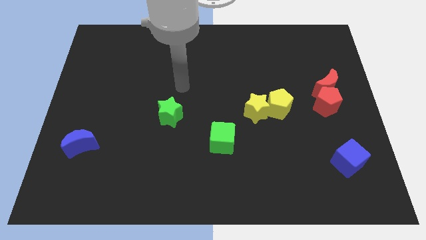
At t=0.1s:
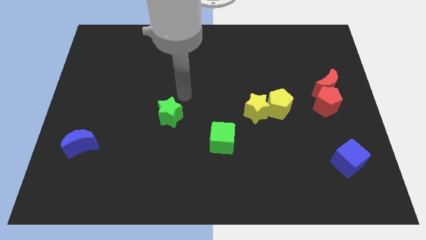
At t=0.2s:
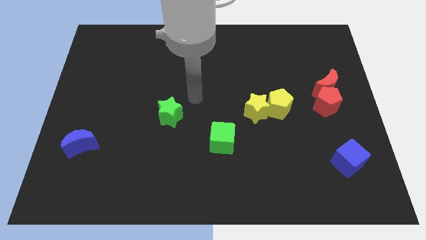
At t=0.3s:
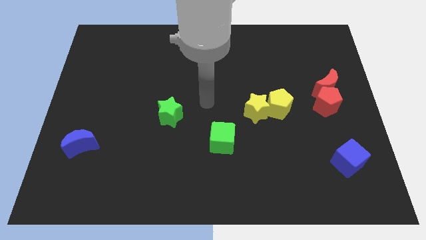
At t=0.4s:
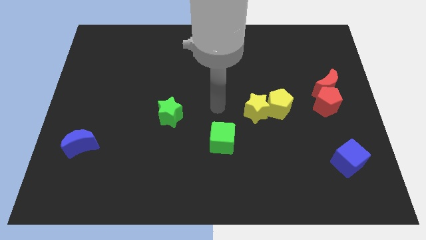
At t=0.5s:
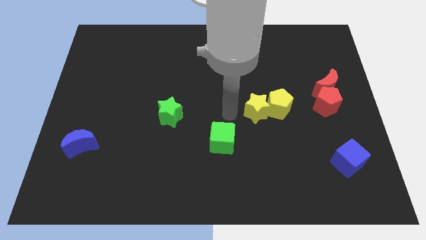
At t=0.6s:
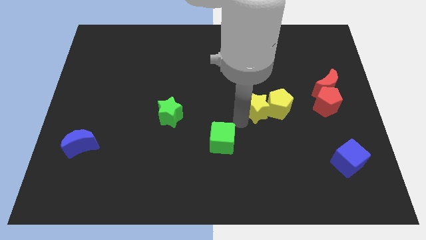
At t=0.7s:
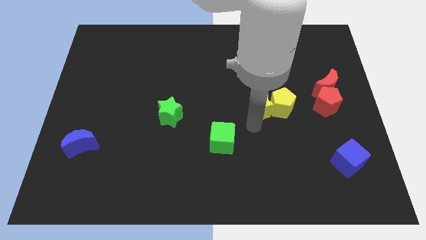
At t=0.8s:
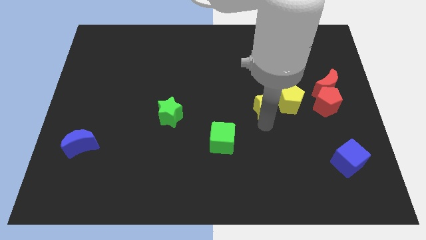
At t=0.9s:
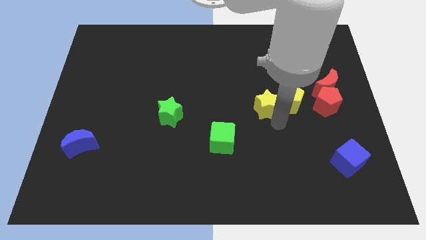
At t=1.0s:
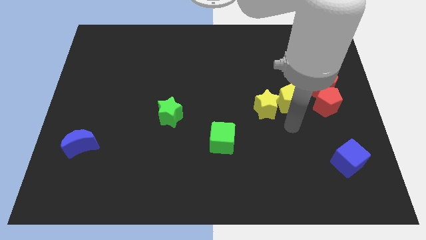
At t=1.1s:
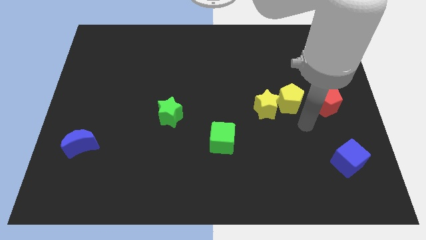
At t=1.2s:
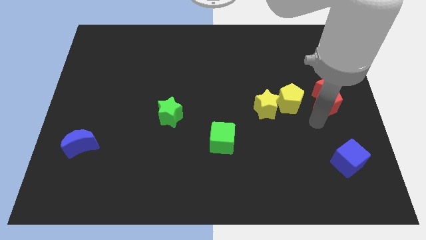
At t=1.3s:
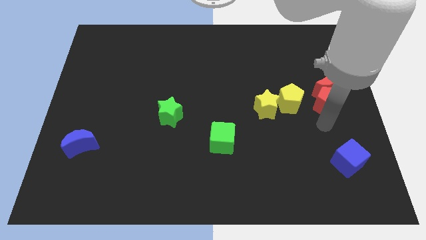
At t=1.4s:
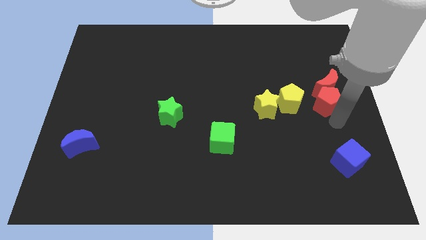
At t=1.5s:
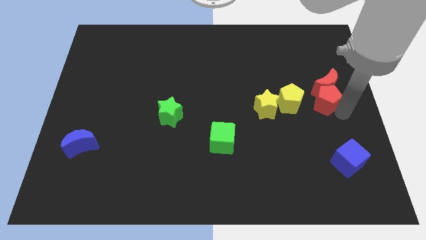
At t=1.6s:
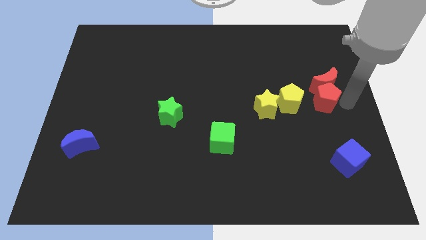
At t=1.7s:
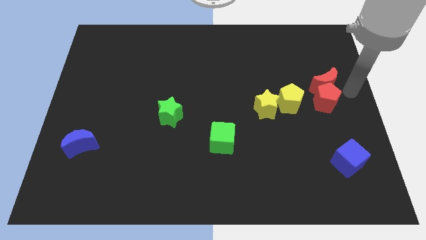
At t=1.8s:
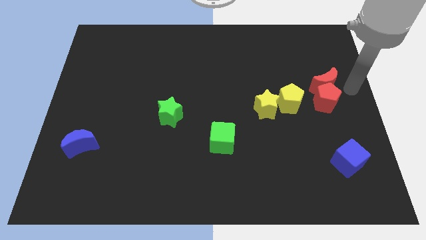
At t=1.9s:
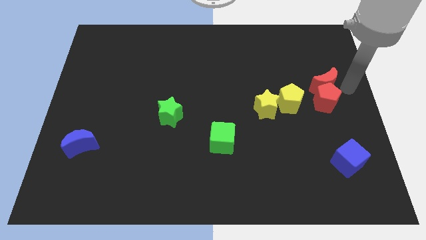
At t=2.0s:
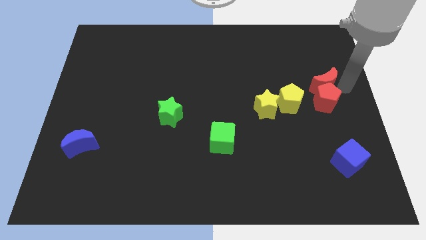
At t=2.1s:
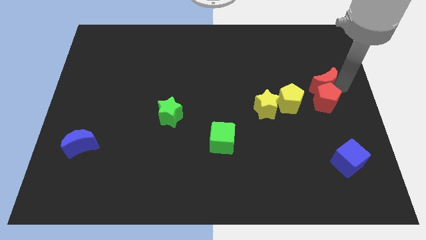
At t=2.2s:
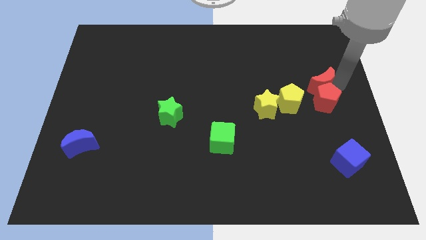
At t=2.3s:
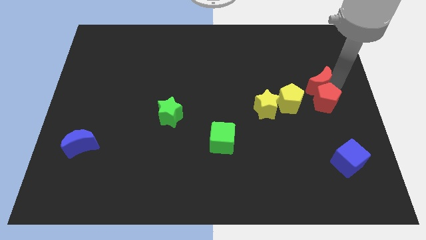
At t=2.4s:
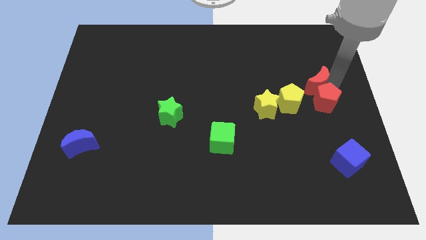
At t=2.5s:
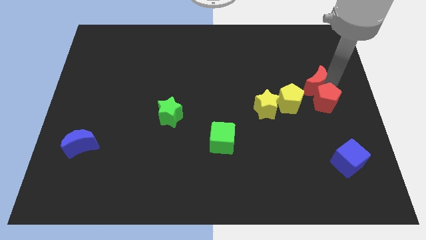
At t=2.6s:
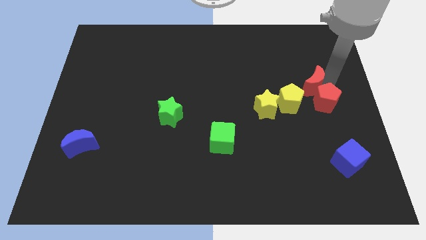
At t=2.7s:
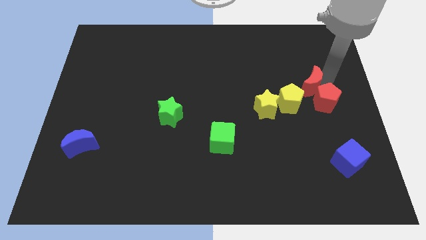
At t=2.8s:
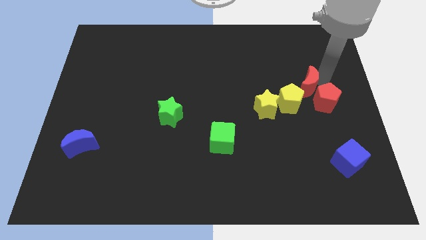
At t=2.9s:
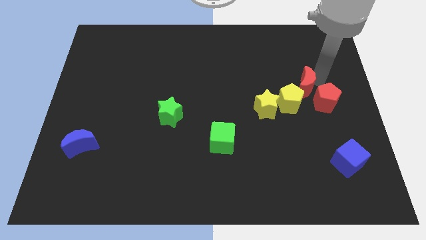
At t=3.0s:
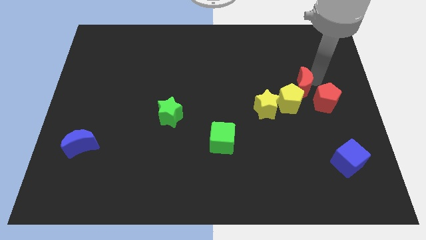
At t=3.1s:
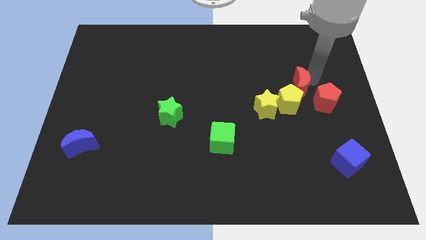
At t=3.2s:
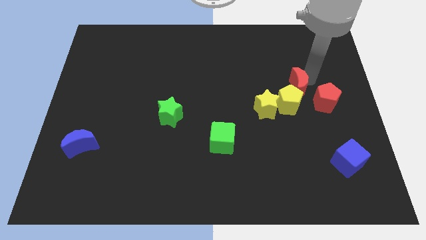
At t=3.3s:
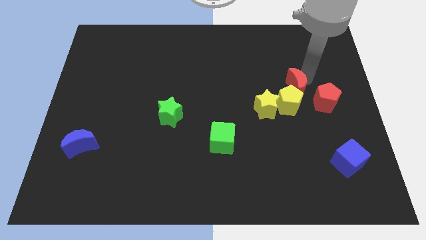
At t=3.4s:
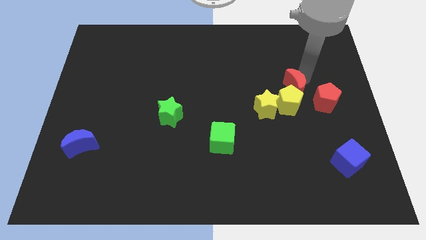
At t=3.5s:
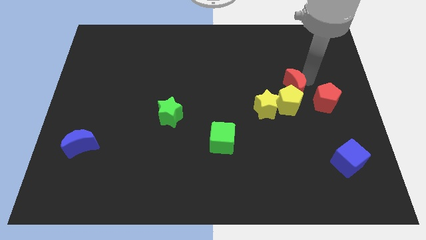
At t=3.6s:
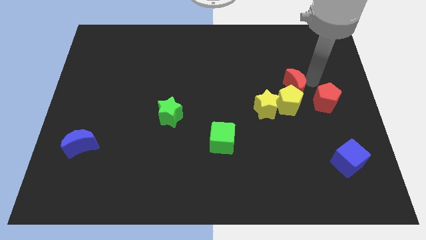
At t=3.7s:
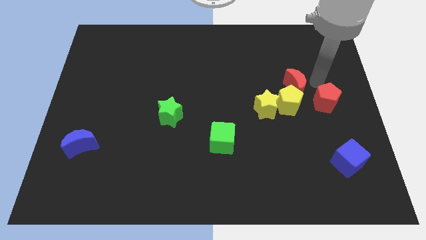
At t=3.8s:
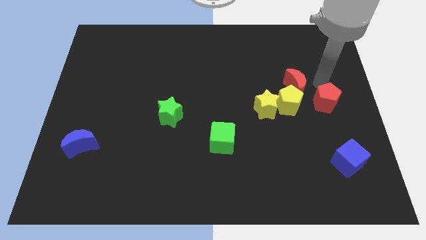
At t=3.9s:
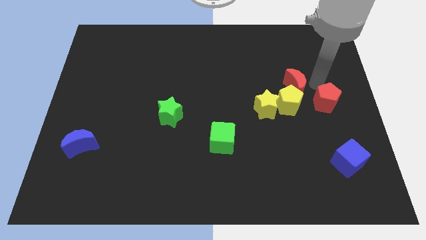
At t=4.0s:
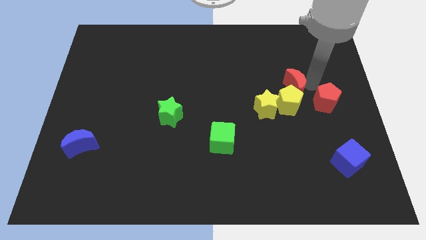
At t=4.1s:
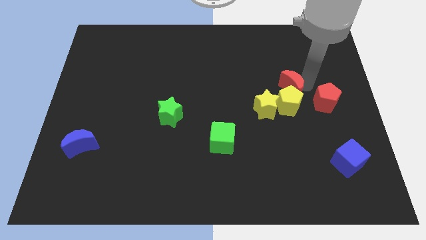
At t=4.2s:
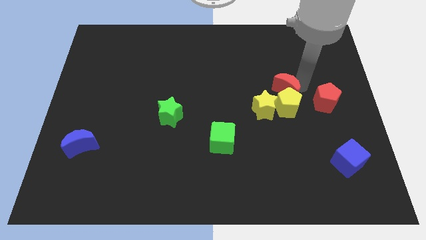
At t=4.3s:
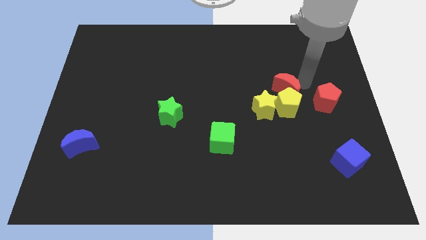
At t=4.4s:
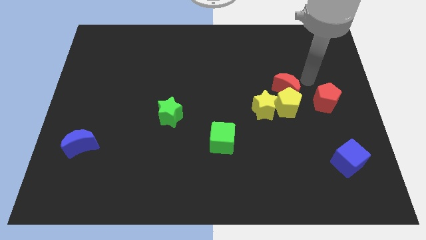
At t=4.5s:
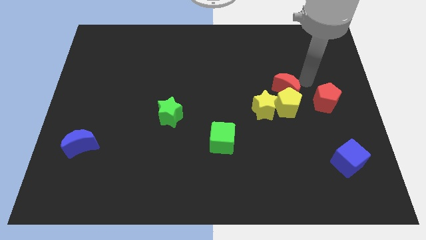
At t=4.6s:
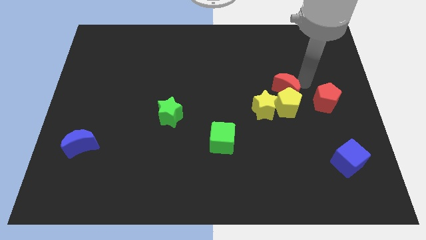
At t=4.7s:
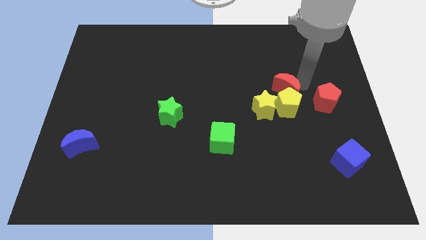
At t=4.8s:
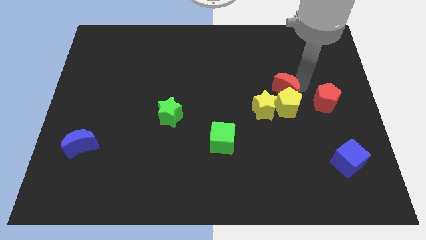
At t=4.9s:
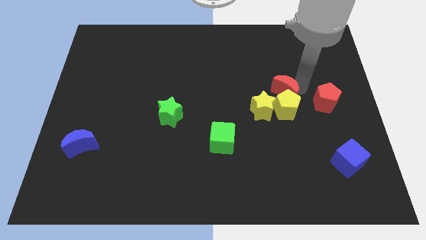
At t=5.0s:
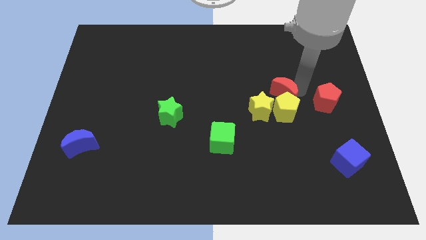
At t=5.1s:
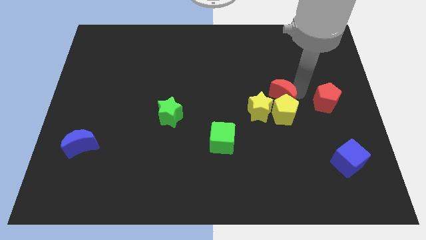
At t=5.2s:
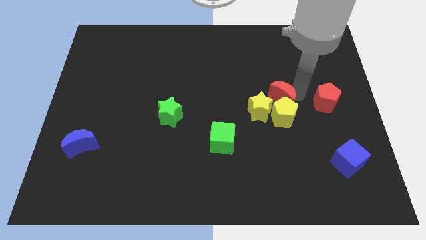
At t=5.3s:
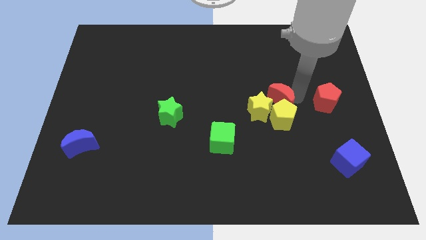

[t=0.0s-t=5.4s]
push the red moon towards the yellow star

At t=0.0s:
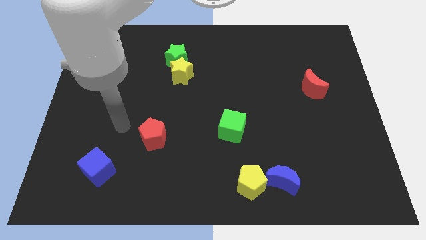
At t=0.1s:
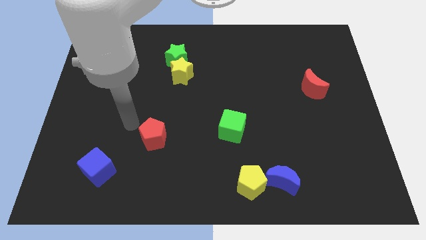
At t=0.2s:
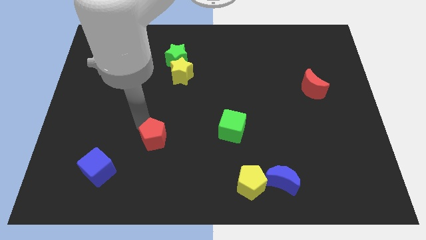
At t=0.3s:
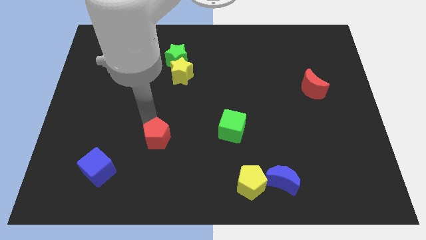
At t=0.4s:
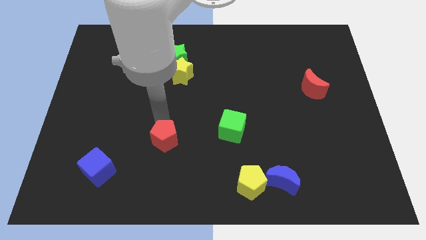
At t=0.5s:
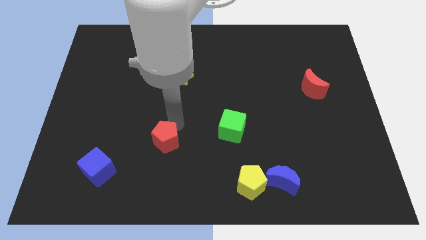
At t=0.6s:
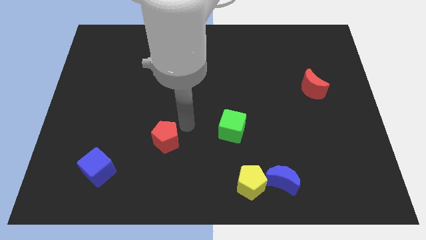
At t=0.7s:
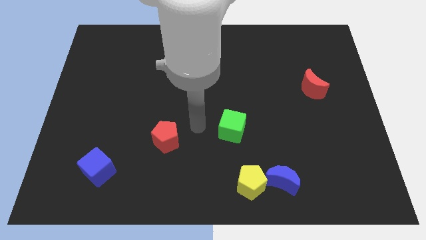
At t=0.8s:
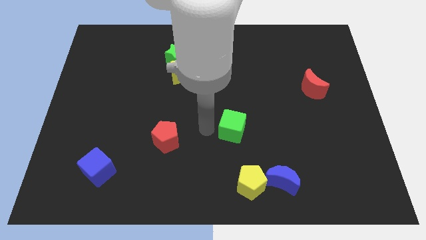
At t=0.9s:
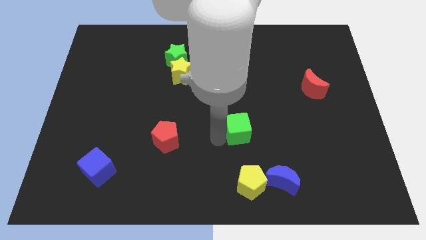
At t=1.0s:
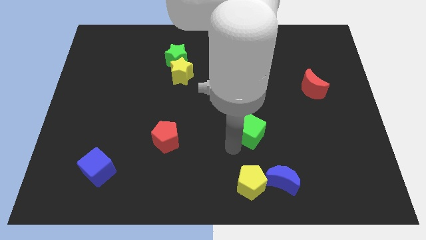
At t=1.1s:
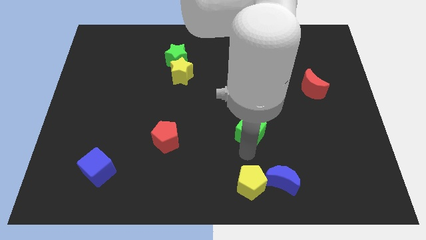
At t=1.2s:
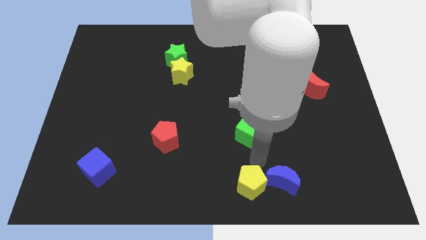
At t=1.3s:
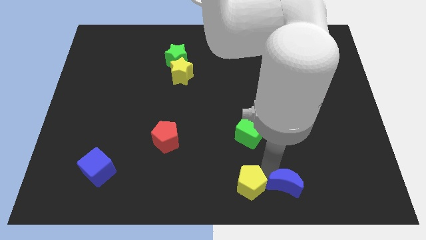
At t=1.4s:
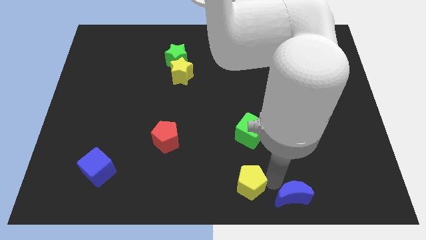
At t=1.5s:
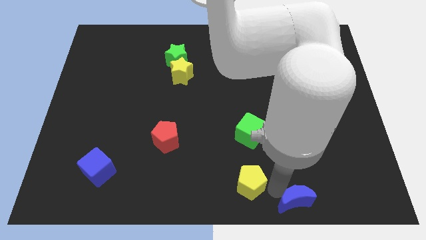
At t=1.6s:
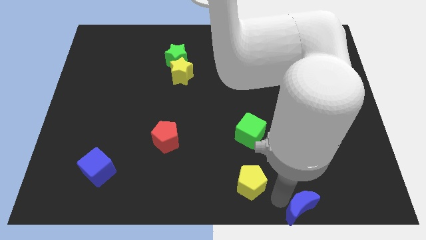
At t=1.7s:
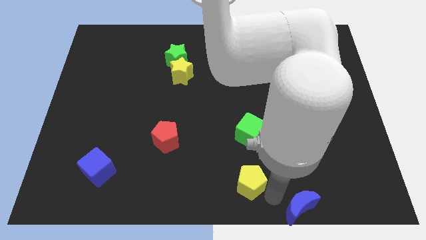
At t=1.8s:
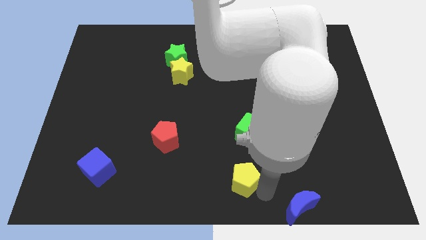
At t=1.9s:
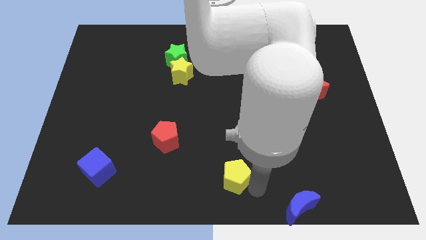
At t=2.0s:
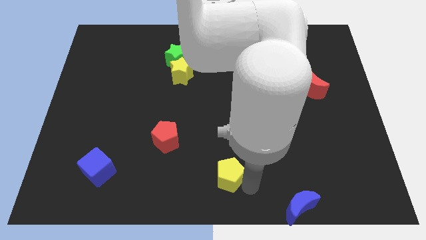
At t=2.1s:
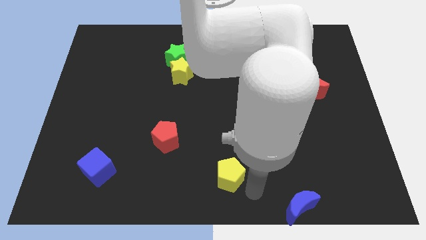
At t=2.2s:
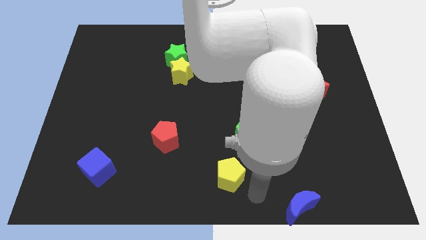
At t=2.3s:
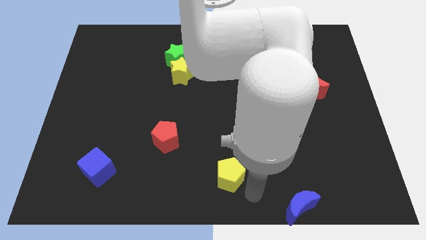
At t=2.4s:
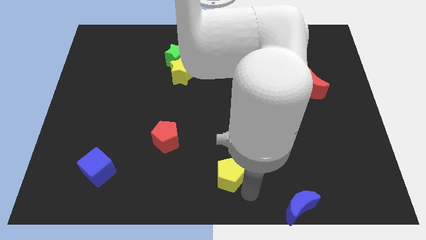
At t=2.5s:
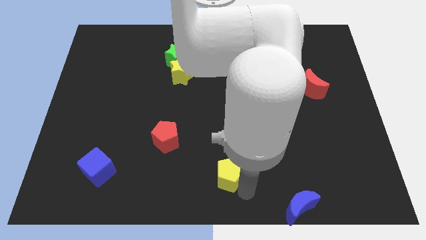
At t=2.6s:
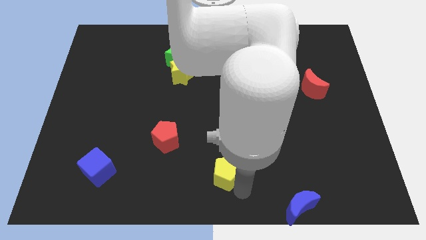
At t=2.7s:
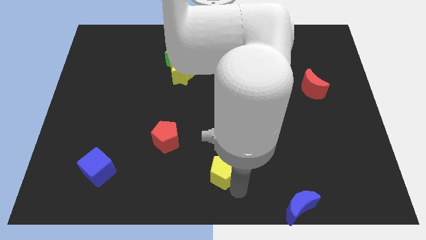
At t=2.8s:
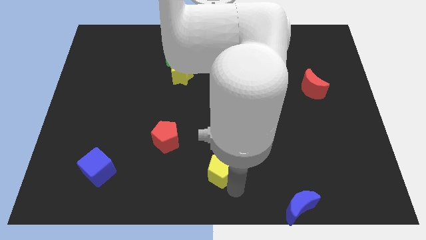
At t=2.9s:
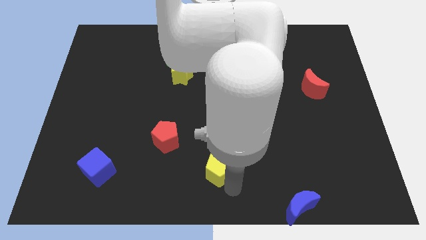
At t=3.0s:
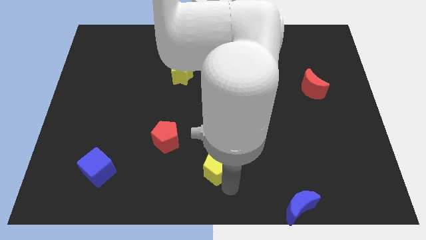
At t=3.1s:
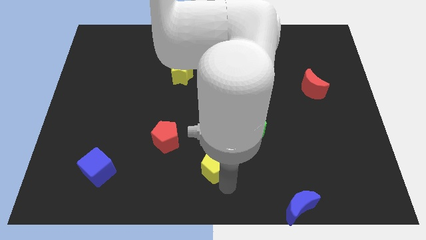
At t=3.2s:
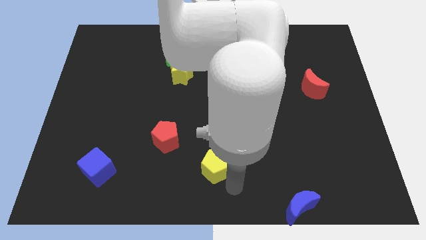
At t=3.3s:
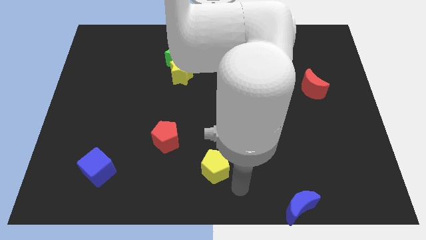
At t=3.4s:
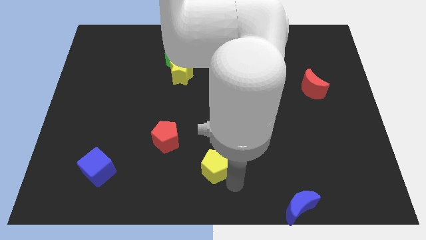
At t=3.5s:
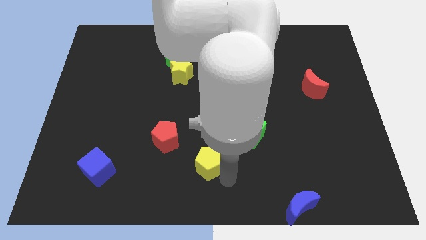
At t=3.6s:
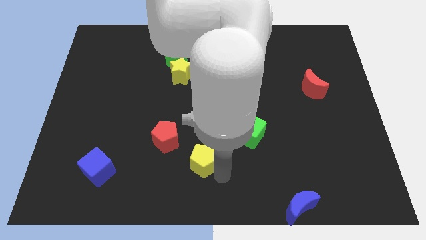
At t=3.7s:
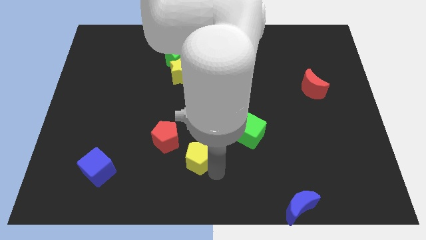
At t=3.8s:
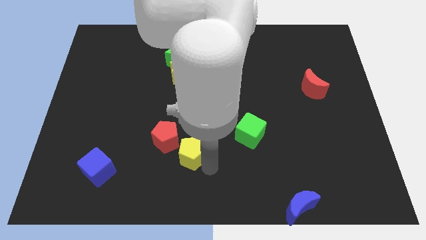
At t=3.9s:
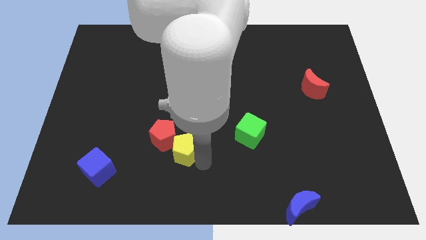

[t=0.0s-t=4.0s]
move the yellow pentagon next to the red pentagon
